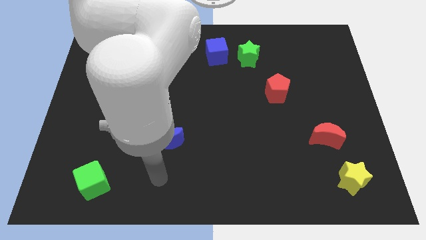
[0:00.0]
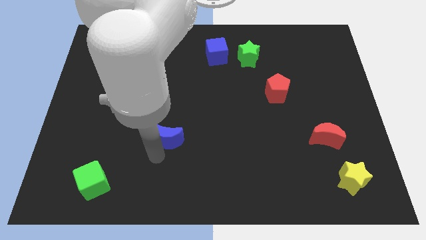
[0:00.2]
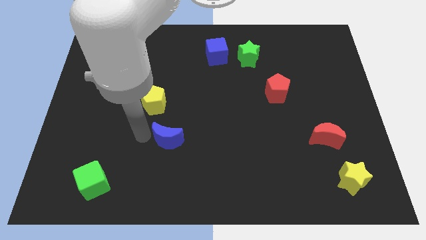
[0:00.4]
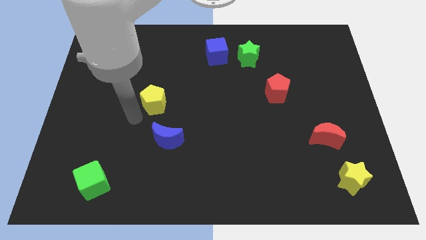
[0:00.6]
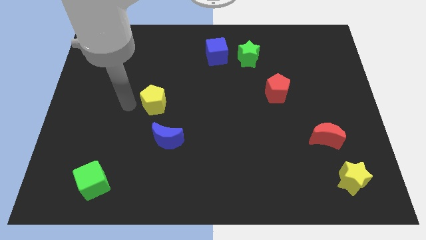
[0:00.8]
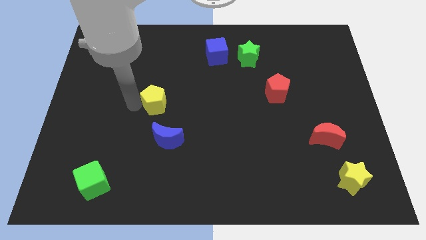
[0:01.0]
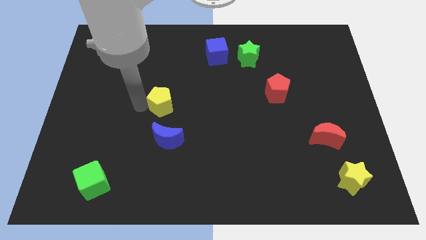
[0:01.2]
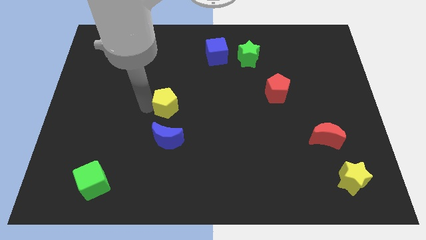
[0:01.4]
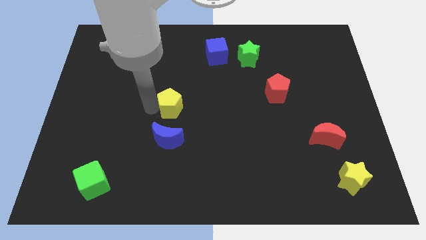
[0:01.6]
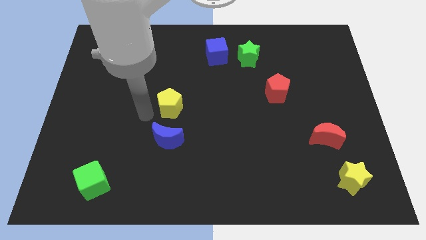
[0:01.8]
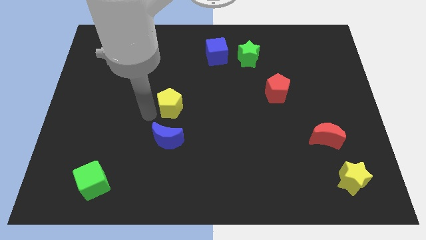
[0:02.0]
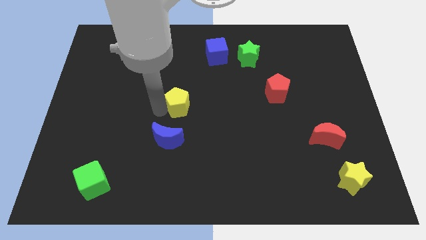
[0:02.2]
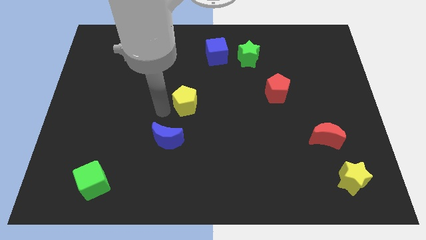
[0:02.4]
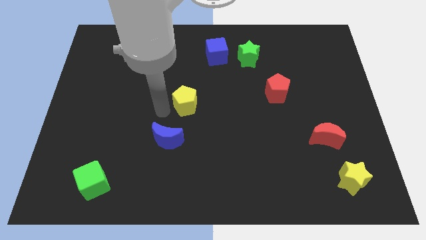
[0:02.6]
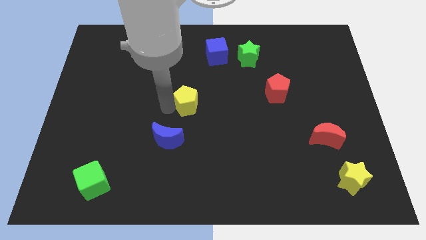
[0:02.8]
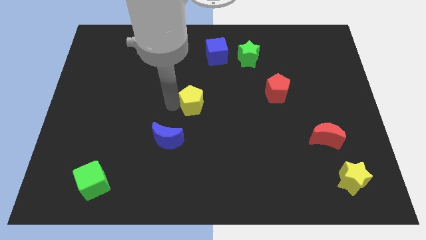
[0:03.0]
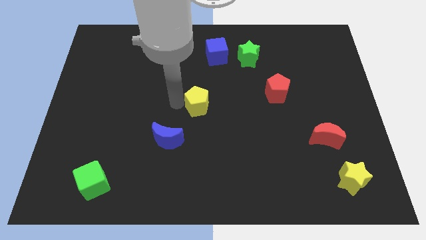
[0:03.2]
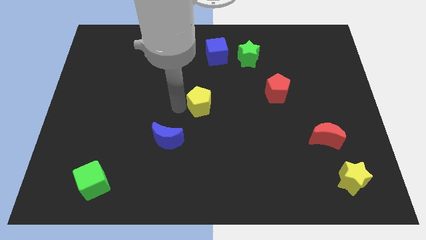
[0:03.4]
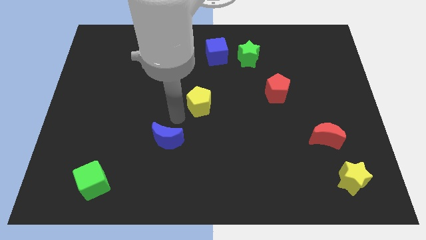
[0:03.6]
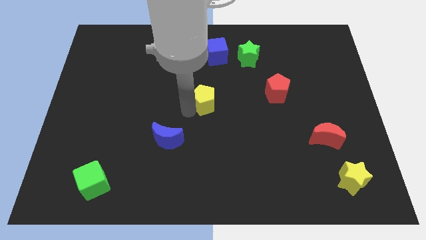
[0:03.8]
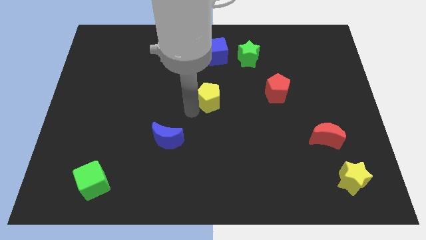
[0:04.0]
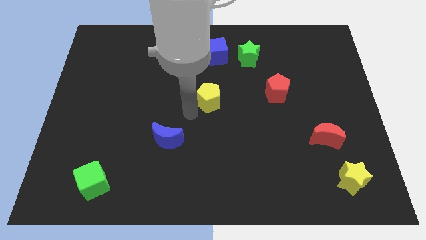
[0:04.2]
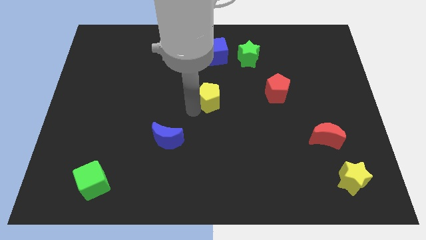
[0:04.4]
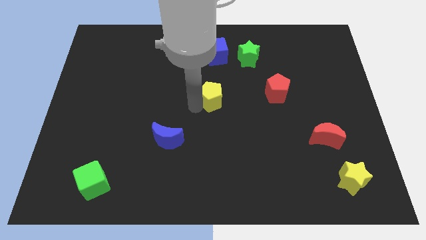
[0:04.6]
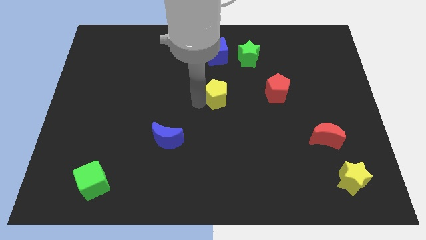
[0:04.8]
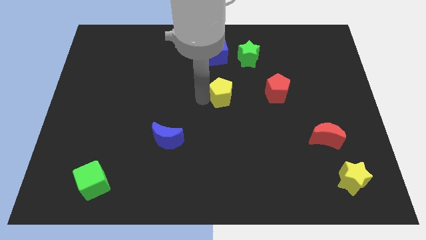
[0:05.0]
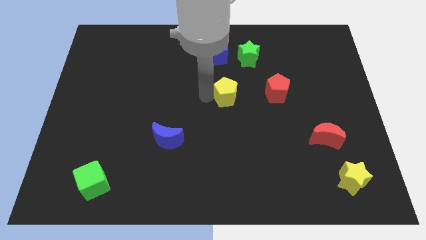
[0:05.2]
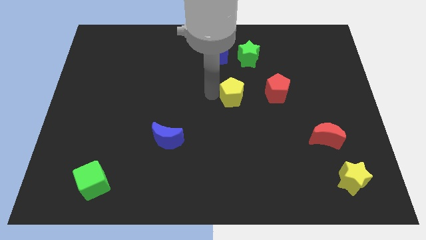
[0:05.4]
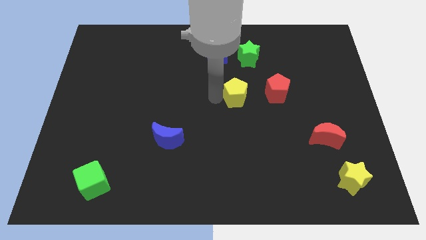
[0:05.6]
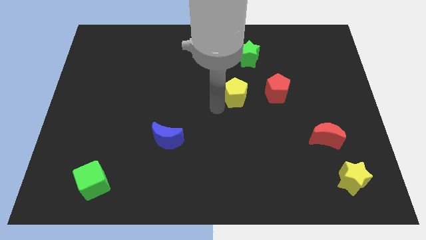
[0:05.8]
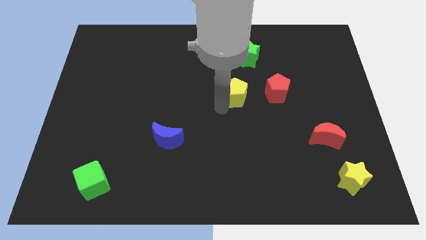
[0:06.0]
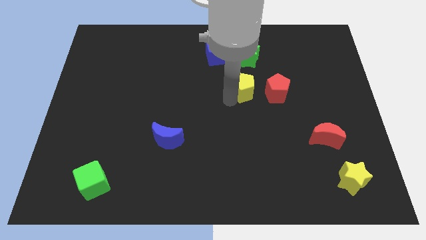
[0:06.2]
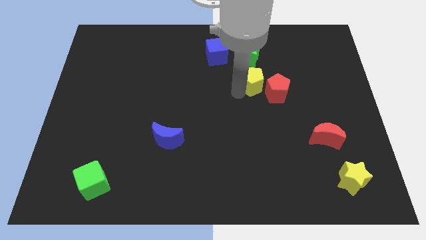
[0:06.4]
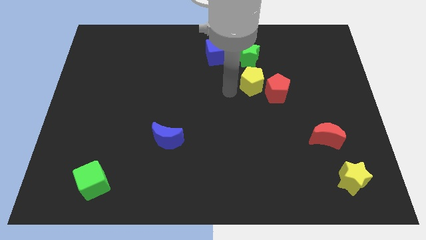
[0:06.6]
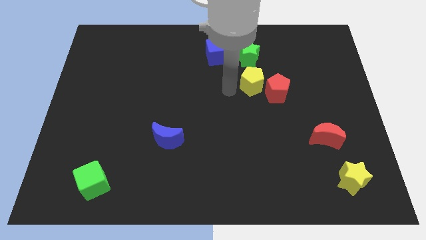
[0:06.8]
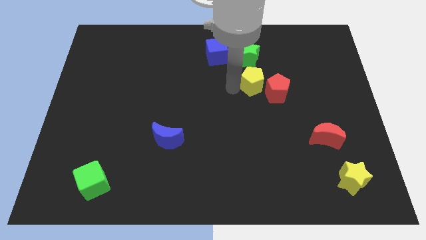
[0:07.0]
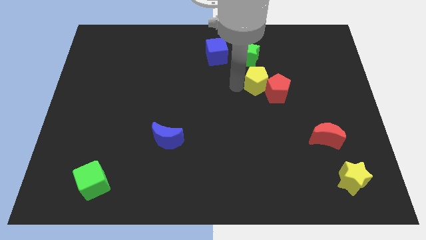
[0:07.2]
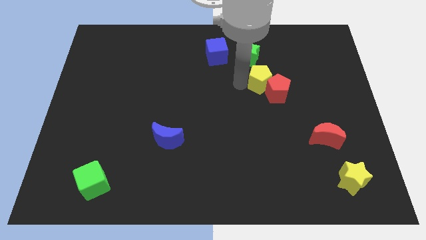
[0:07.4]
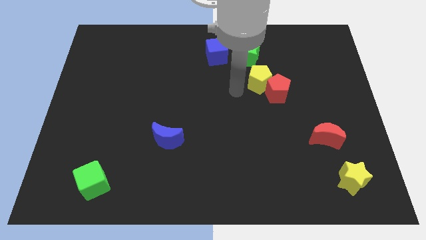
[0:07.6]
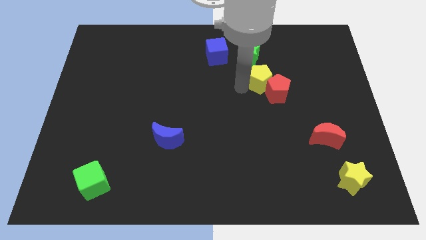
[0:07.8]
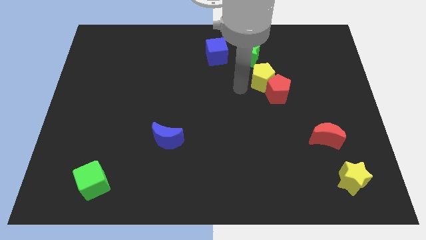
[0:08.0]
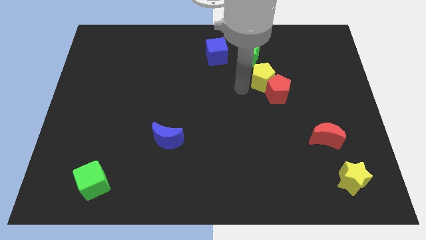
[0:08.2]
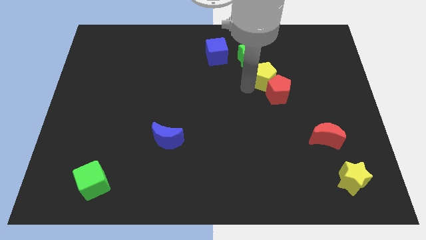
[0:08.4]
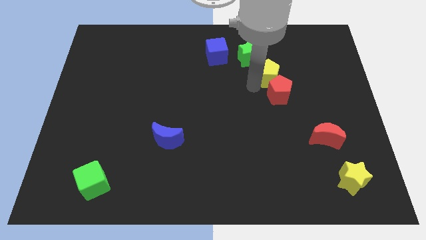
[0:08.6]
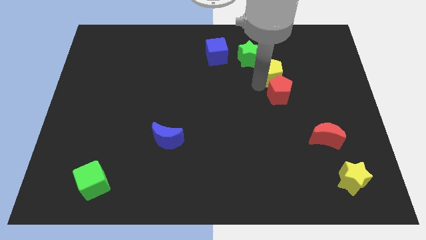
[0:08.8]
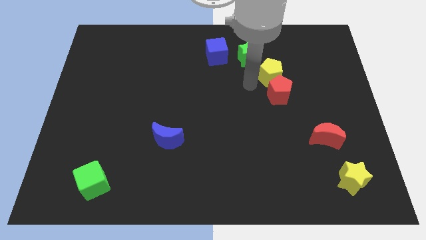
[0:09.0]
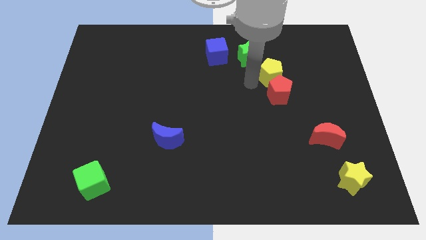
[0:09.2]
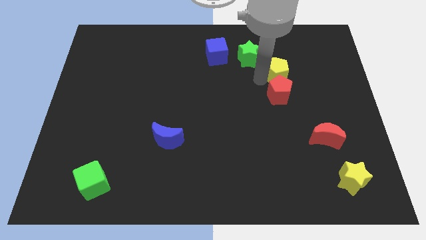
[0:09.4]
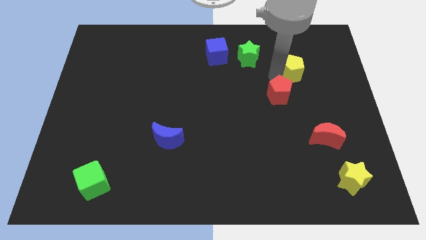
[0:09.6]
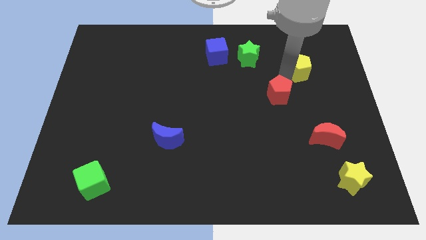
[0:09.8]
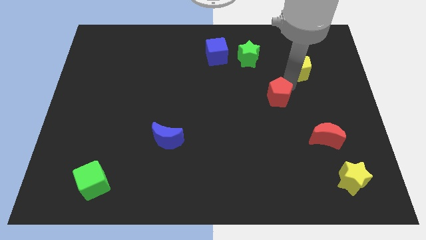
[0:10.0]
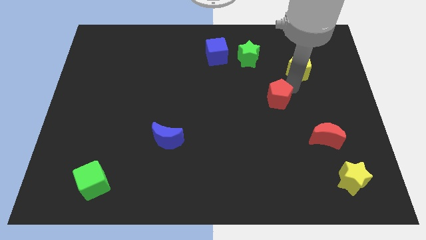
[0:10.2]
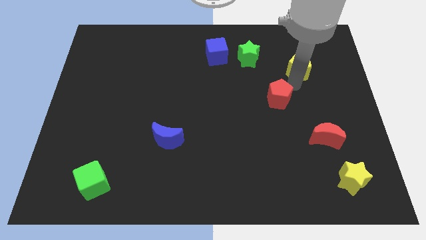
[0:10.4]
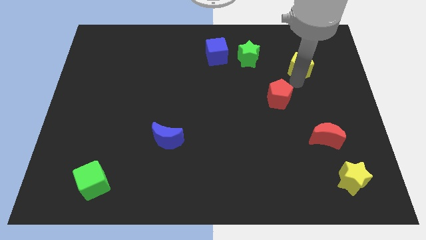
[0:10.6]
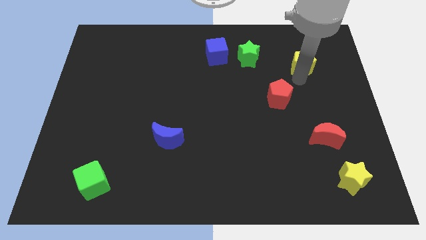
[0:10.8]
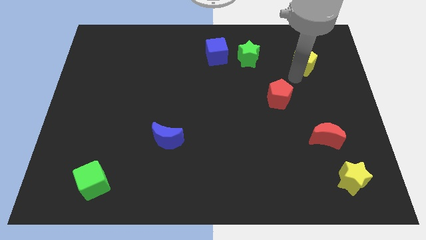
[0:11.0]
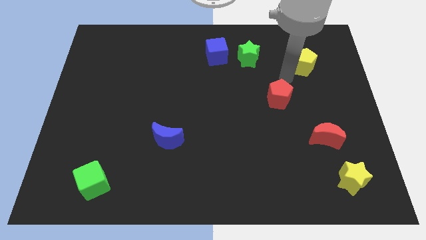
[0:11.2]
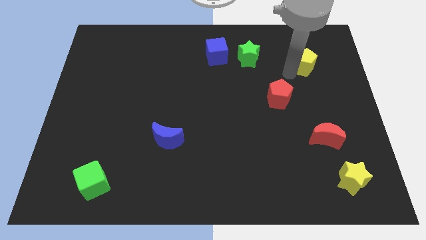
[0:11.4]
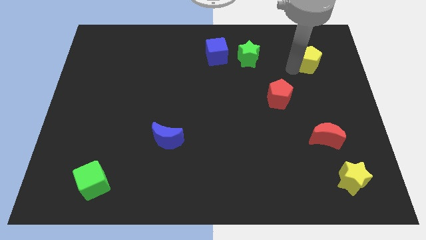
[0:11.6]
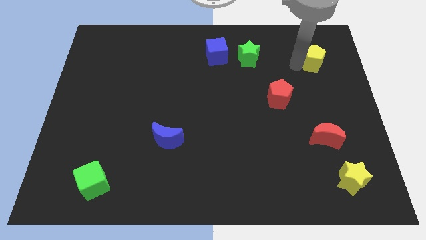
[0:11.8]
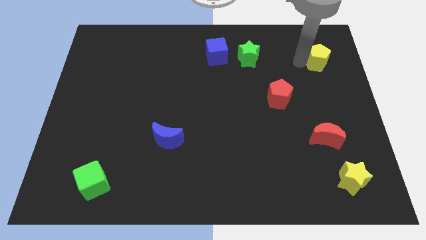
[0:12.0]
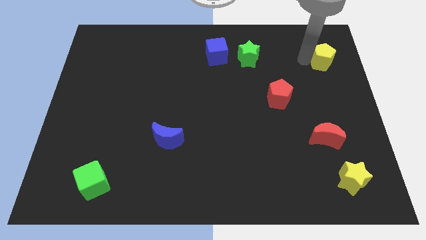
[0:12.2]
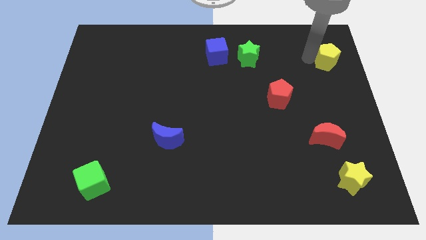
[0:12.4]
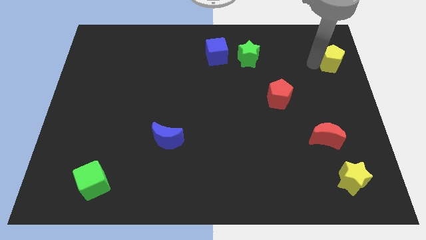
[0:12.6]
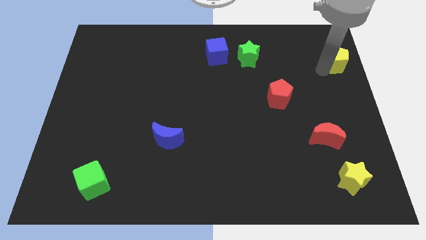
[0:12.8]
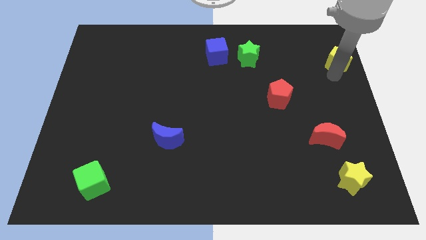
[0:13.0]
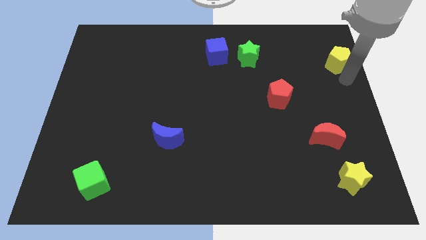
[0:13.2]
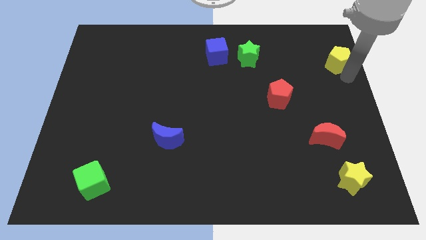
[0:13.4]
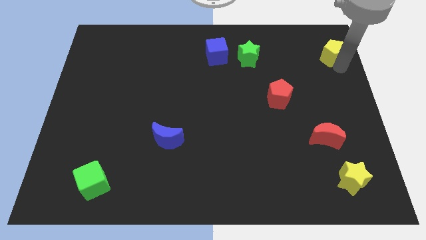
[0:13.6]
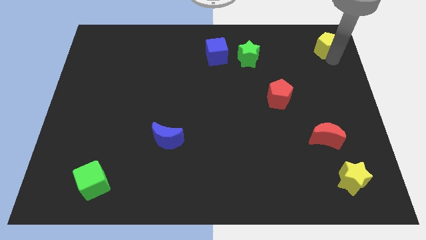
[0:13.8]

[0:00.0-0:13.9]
put the yellow pentagon to the upper right corner
